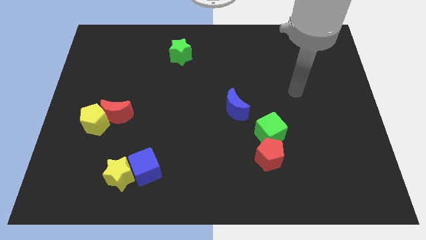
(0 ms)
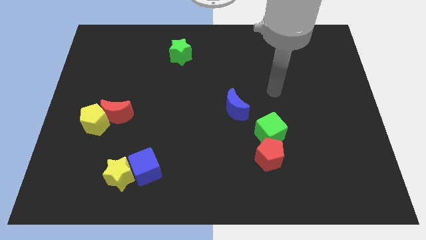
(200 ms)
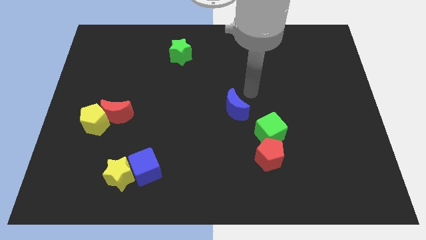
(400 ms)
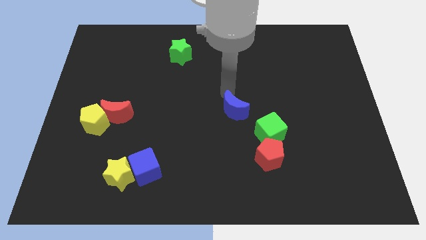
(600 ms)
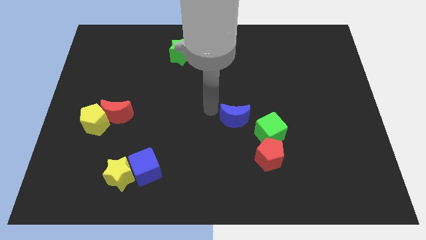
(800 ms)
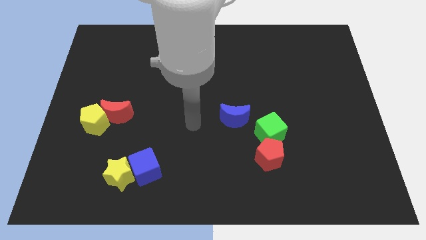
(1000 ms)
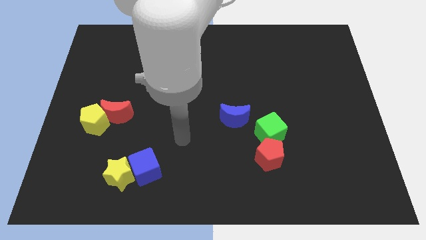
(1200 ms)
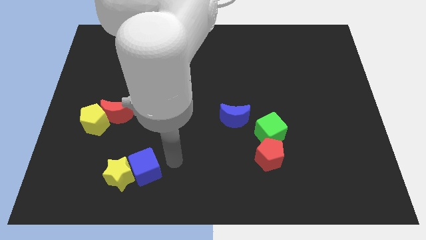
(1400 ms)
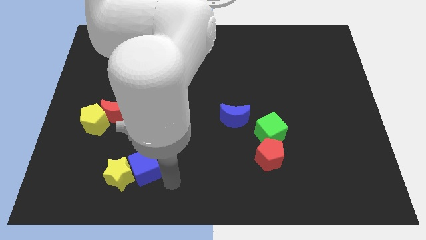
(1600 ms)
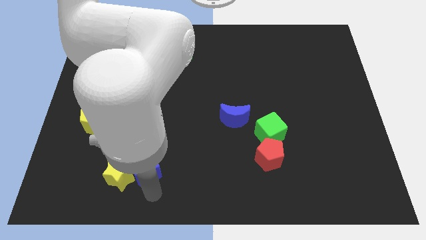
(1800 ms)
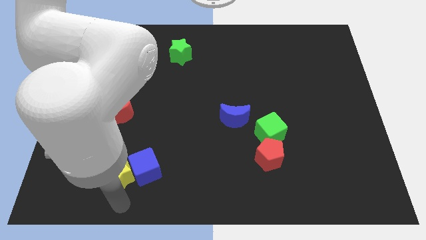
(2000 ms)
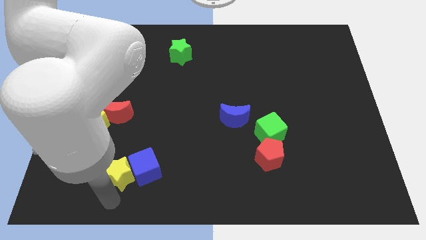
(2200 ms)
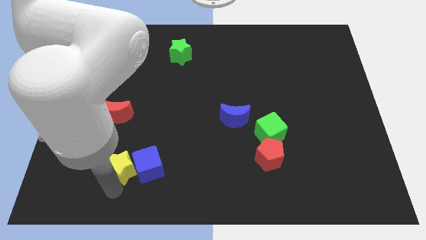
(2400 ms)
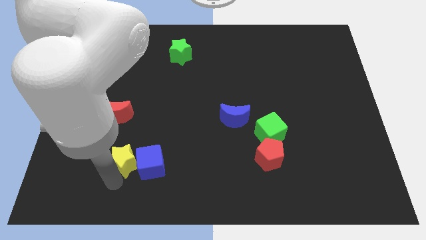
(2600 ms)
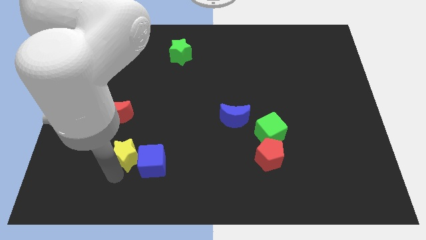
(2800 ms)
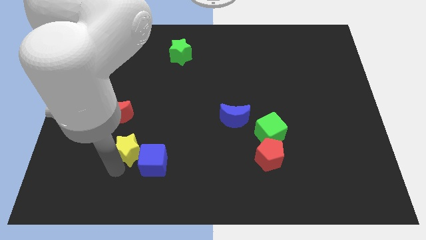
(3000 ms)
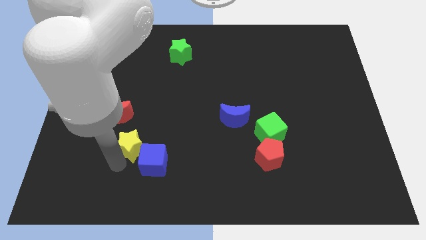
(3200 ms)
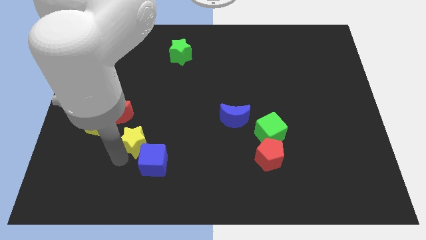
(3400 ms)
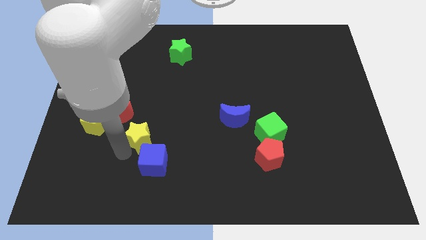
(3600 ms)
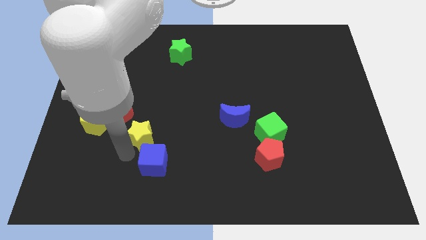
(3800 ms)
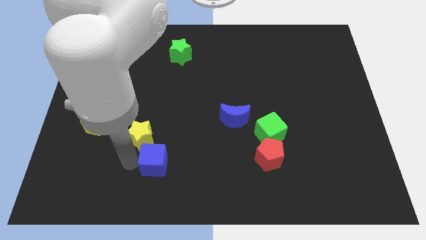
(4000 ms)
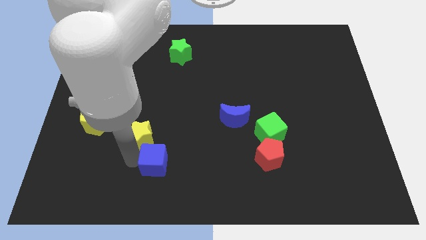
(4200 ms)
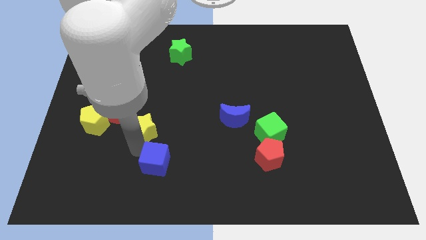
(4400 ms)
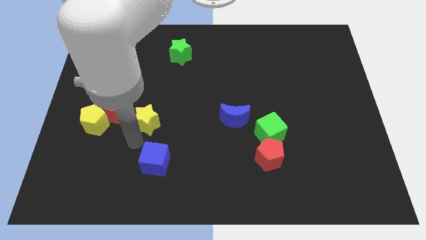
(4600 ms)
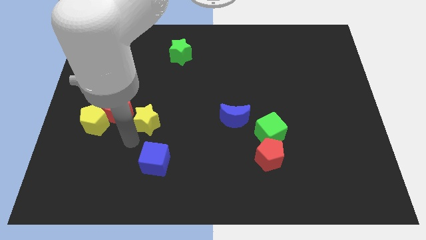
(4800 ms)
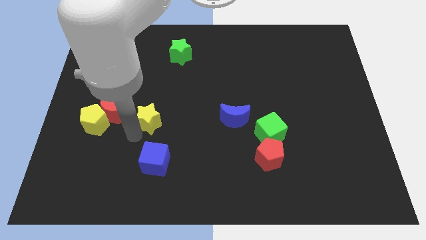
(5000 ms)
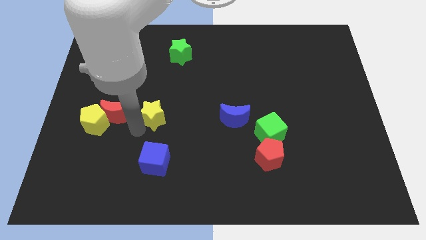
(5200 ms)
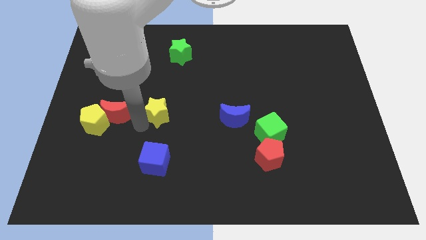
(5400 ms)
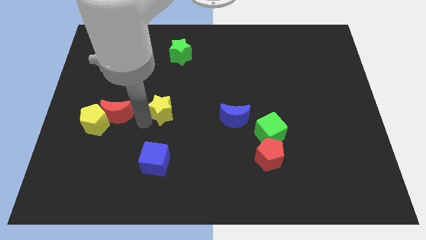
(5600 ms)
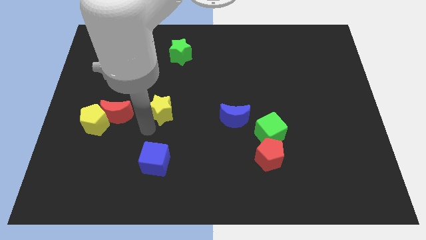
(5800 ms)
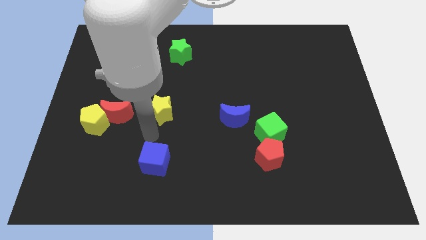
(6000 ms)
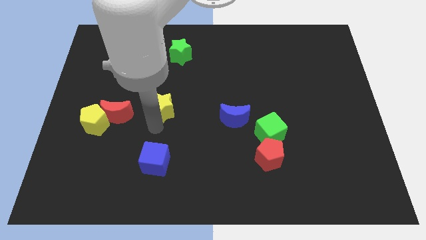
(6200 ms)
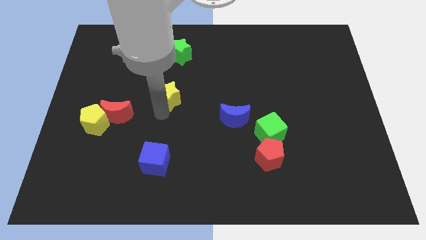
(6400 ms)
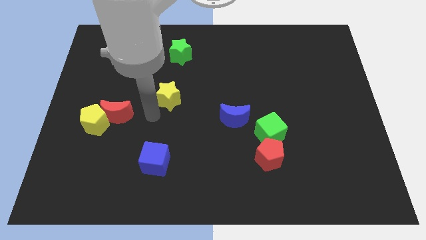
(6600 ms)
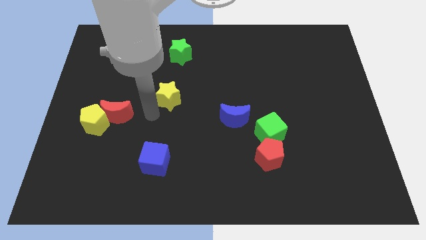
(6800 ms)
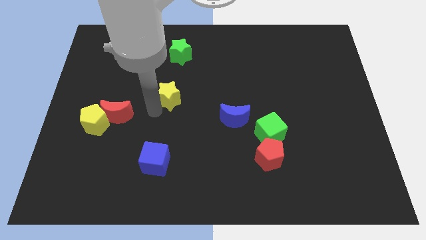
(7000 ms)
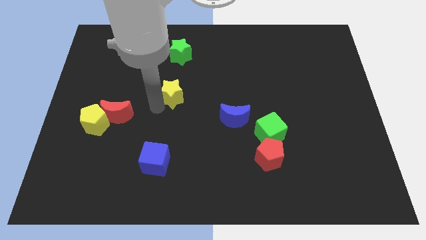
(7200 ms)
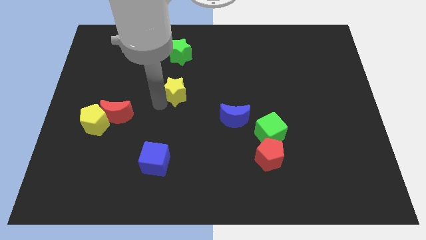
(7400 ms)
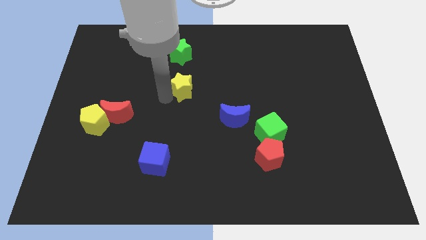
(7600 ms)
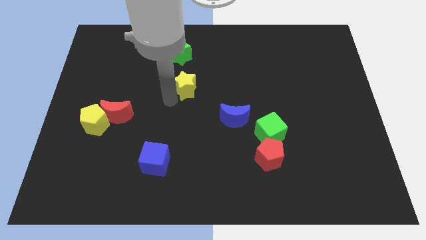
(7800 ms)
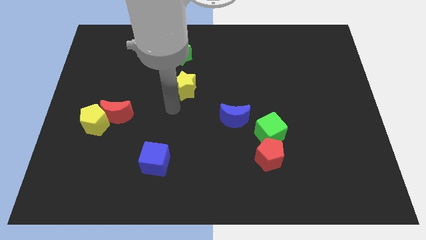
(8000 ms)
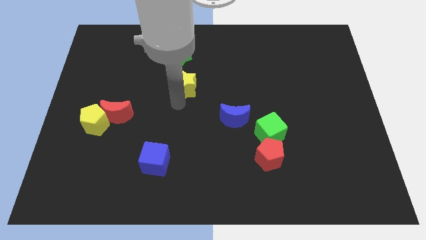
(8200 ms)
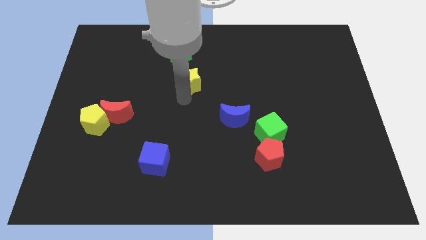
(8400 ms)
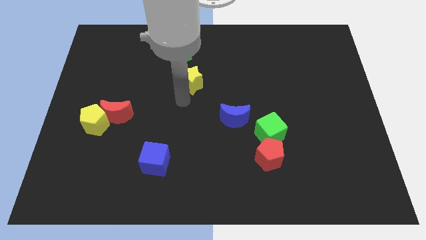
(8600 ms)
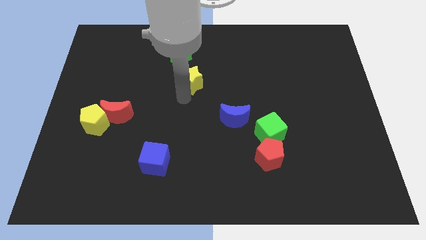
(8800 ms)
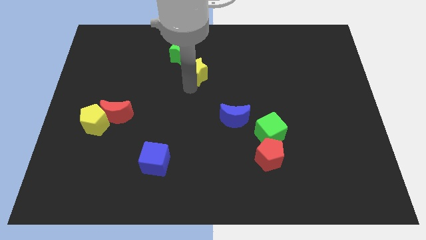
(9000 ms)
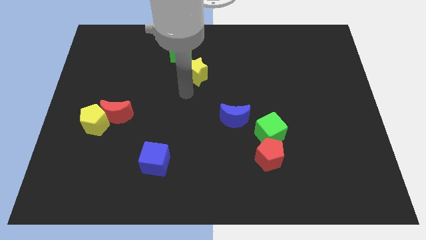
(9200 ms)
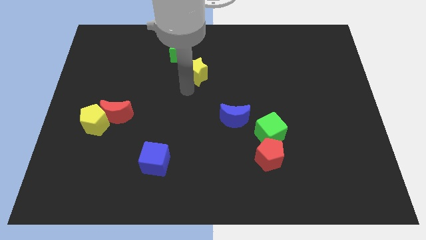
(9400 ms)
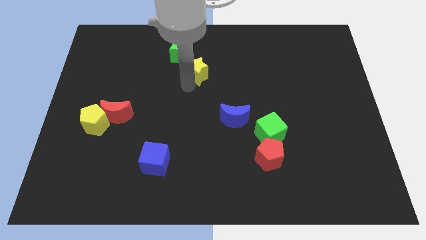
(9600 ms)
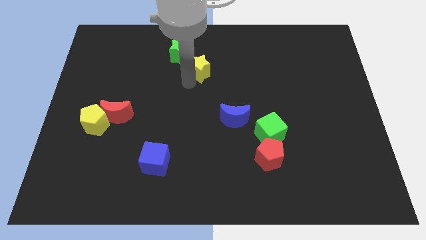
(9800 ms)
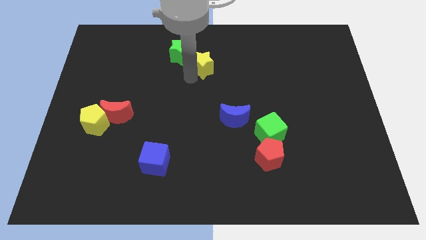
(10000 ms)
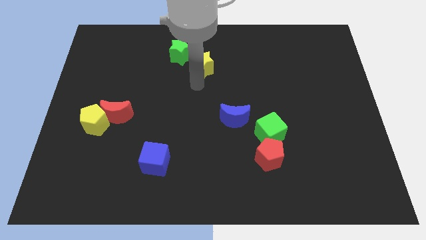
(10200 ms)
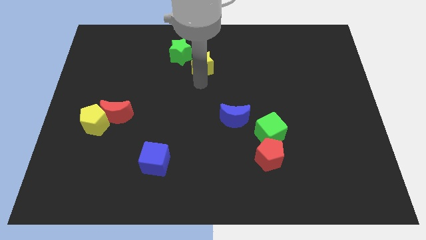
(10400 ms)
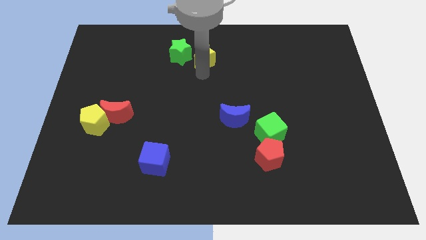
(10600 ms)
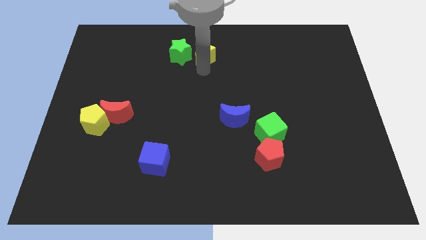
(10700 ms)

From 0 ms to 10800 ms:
slide the yellow star to the towards your base
